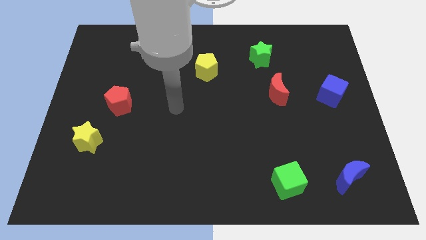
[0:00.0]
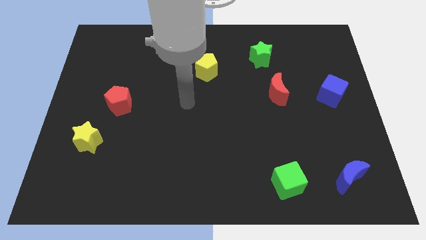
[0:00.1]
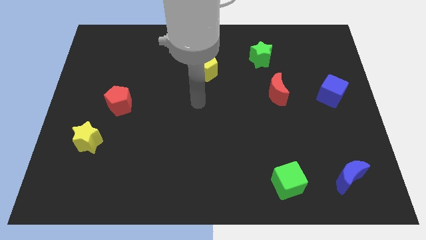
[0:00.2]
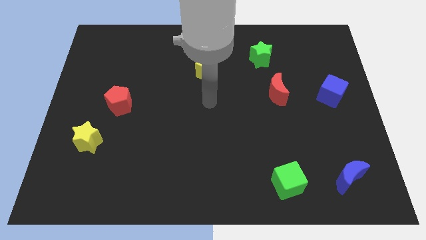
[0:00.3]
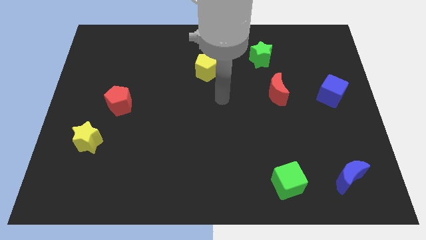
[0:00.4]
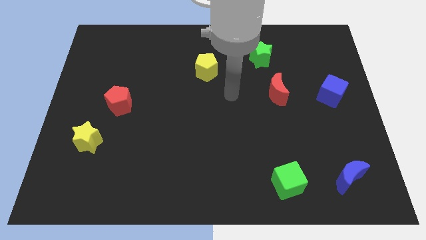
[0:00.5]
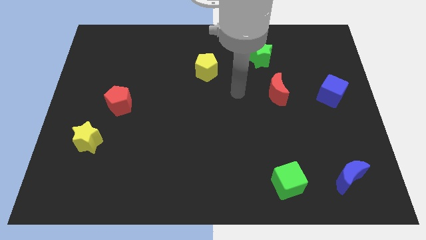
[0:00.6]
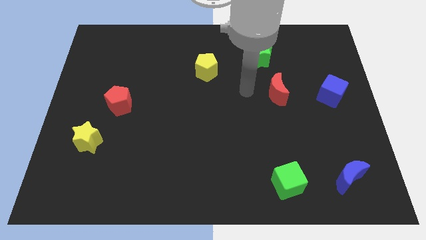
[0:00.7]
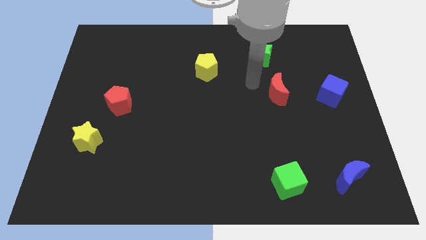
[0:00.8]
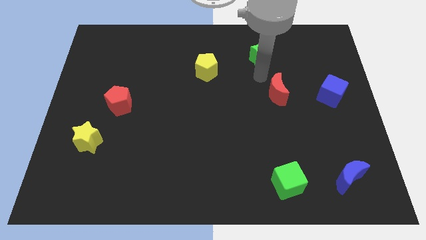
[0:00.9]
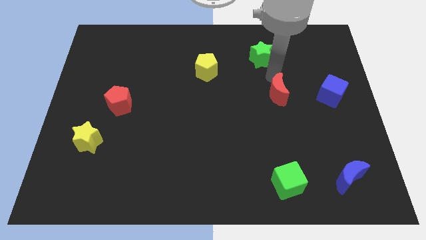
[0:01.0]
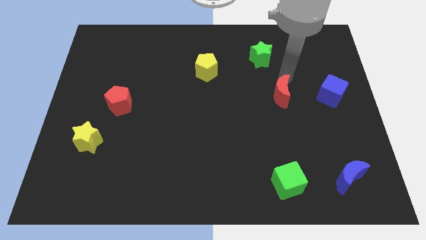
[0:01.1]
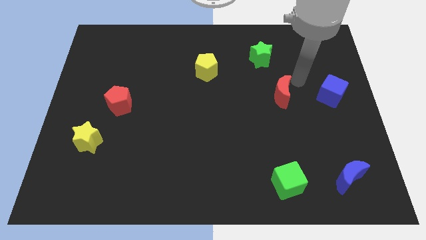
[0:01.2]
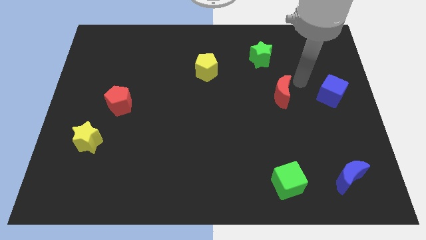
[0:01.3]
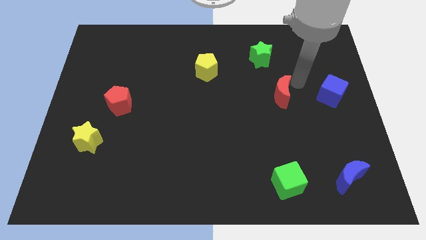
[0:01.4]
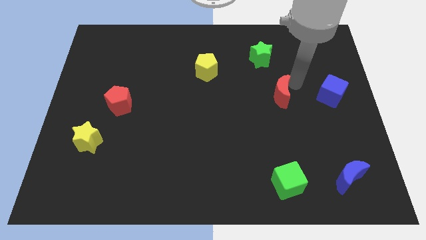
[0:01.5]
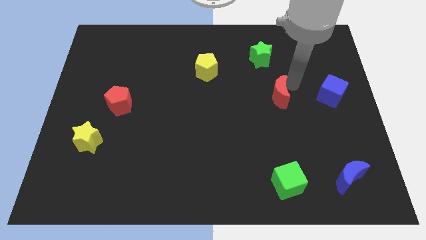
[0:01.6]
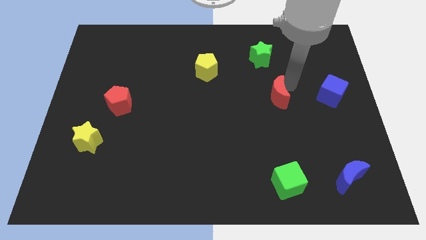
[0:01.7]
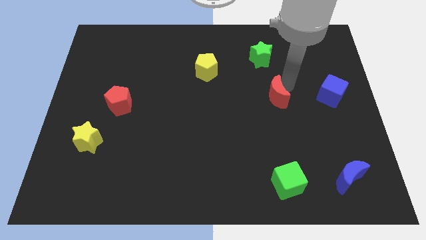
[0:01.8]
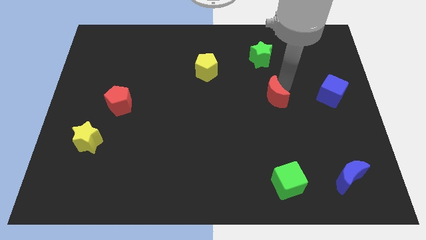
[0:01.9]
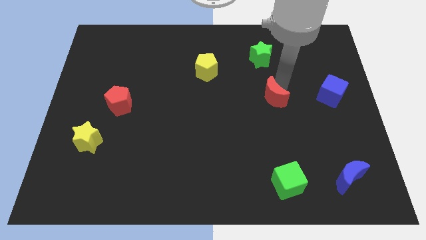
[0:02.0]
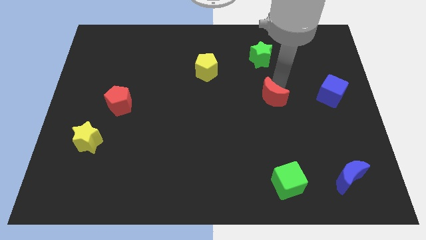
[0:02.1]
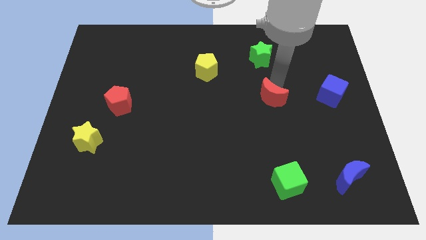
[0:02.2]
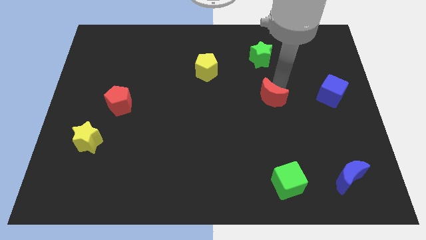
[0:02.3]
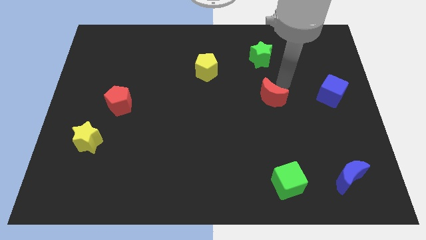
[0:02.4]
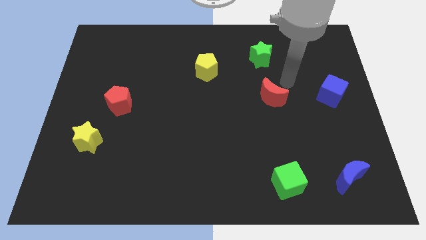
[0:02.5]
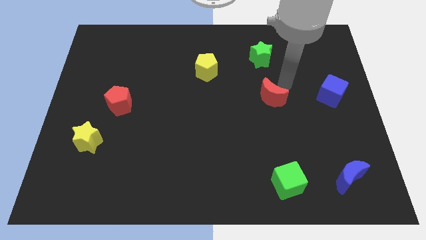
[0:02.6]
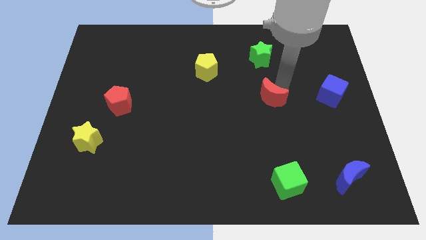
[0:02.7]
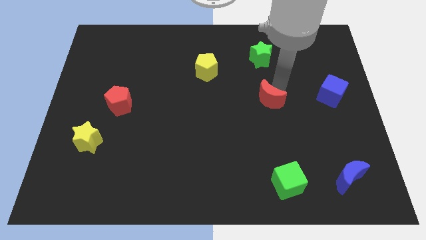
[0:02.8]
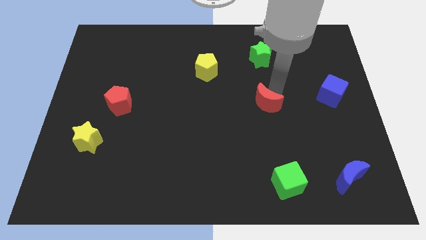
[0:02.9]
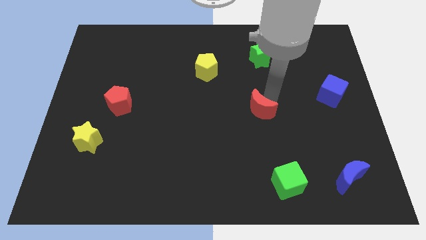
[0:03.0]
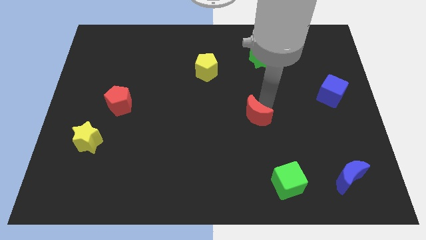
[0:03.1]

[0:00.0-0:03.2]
move the red moon downwards and then to the left slightly

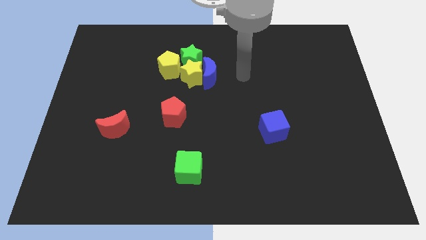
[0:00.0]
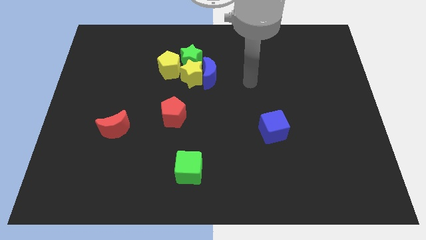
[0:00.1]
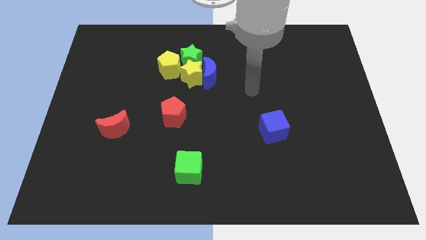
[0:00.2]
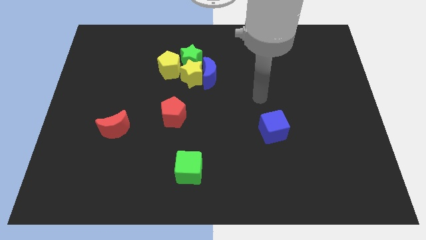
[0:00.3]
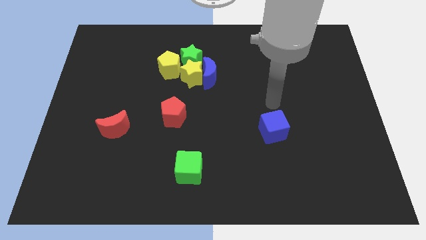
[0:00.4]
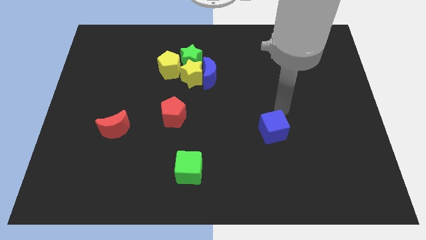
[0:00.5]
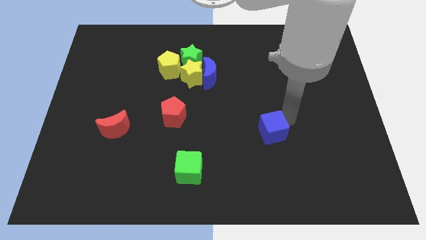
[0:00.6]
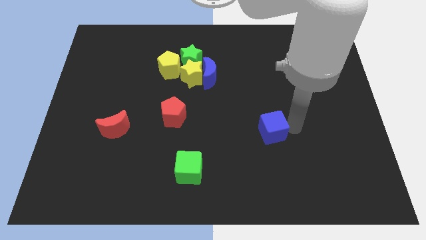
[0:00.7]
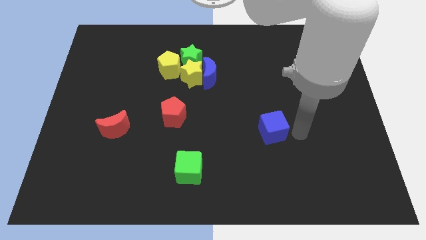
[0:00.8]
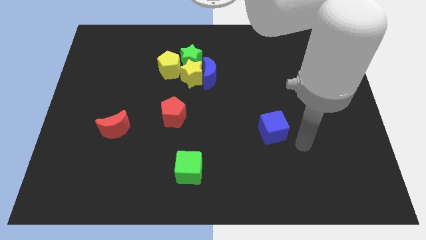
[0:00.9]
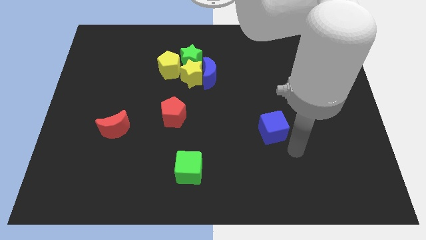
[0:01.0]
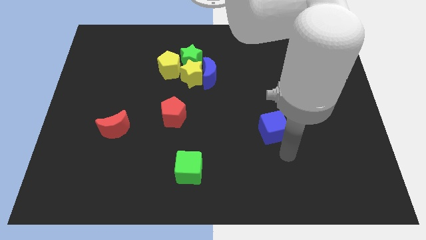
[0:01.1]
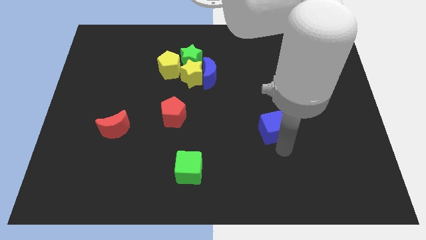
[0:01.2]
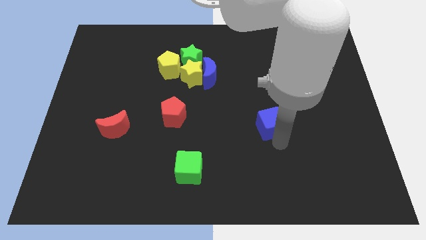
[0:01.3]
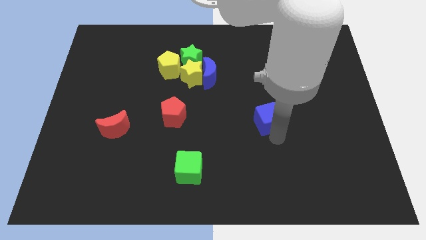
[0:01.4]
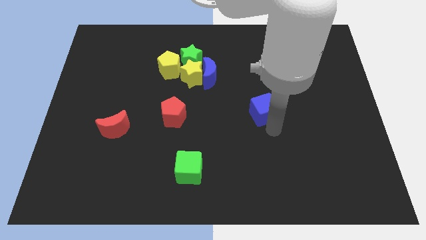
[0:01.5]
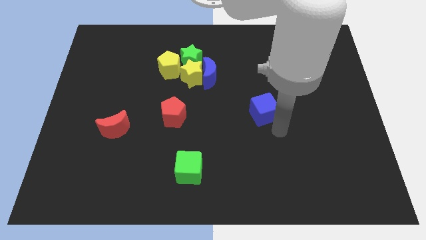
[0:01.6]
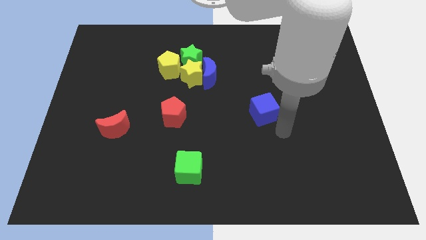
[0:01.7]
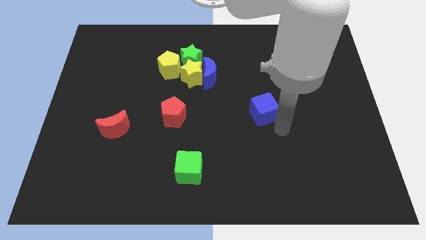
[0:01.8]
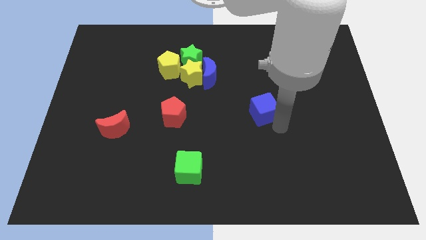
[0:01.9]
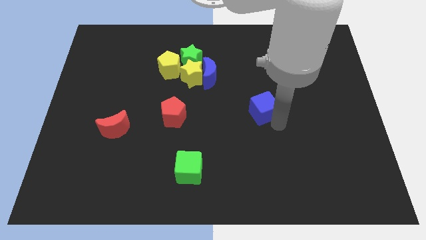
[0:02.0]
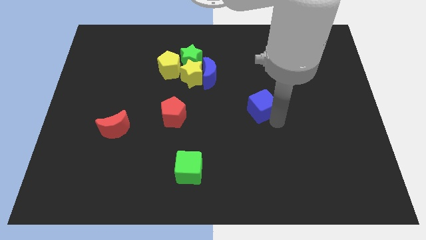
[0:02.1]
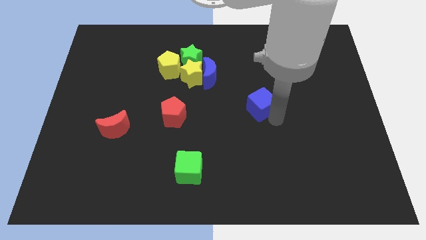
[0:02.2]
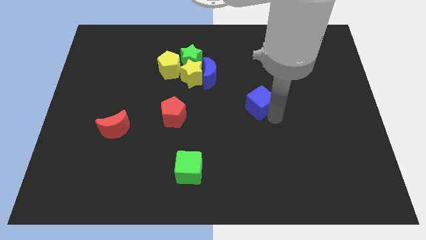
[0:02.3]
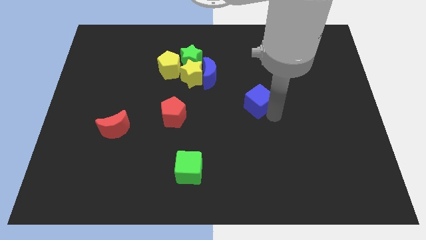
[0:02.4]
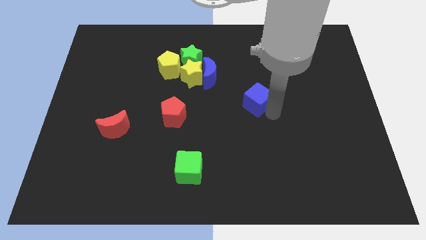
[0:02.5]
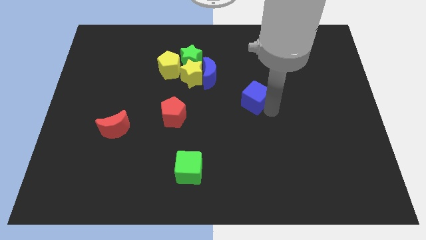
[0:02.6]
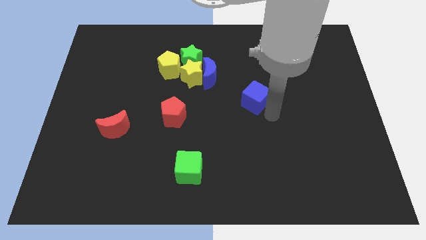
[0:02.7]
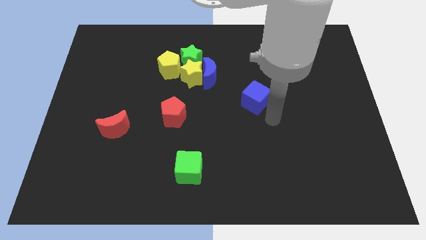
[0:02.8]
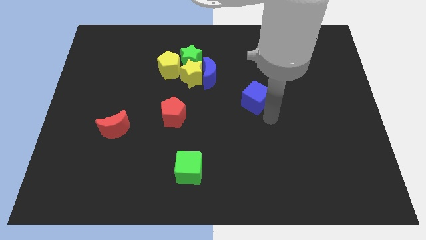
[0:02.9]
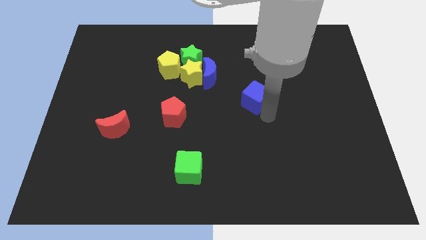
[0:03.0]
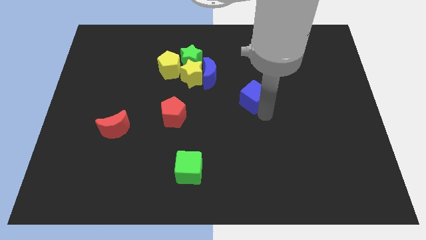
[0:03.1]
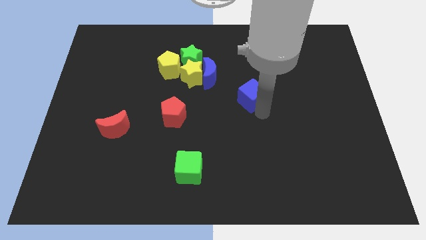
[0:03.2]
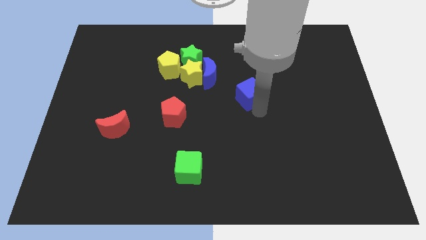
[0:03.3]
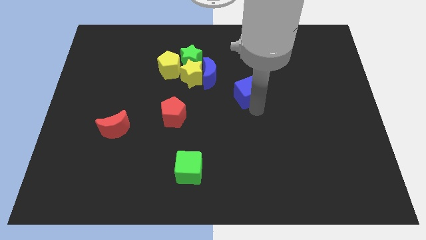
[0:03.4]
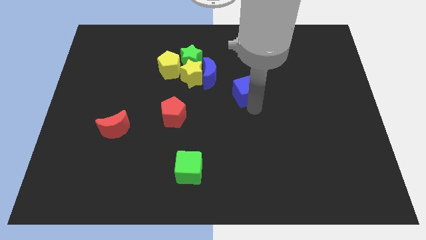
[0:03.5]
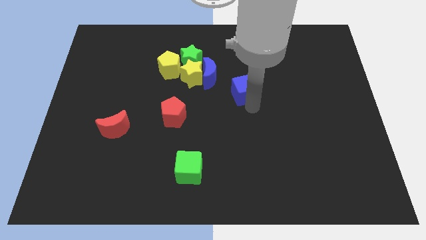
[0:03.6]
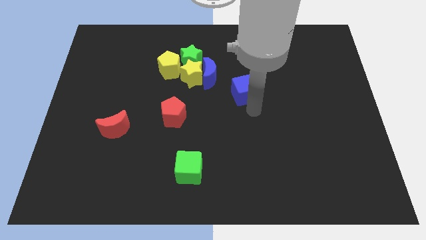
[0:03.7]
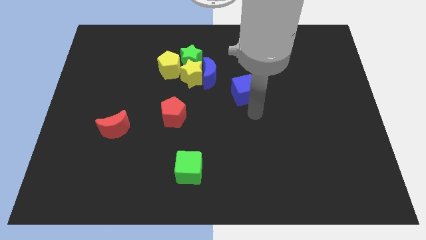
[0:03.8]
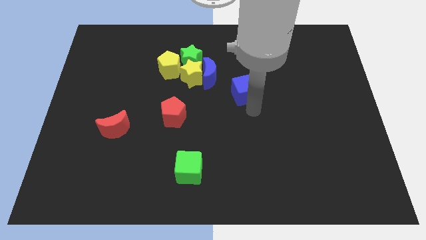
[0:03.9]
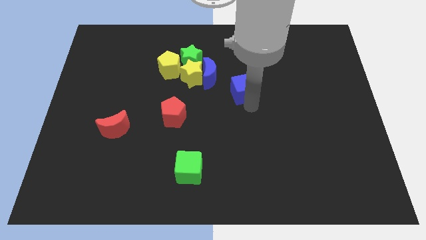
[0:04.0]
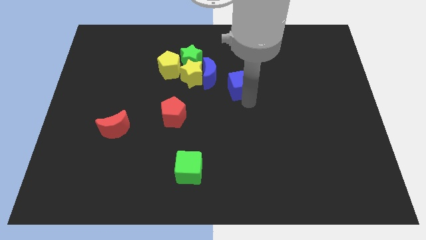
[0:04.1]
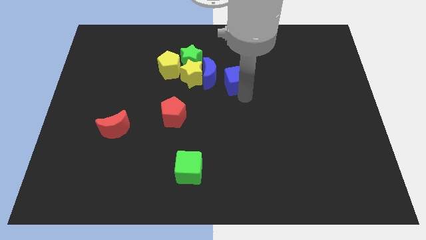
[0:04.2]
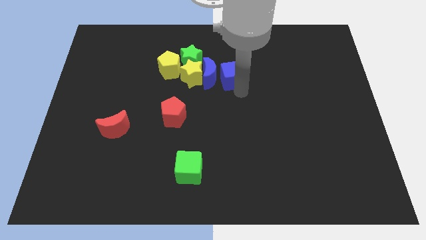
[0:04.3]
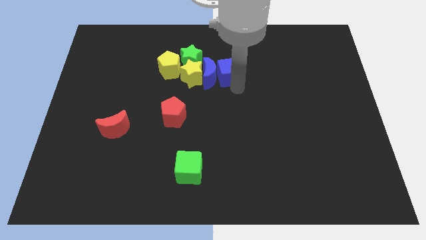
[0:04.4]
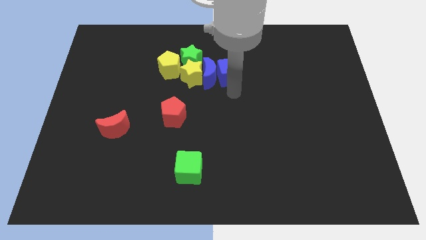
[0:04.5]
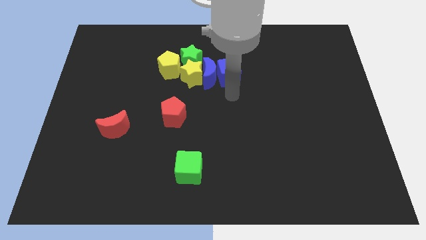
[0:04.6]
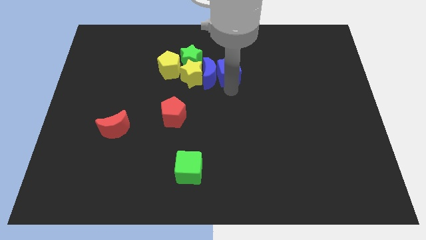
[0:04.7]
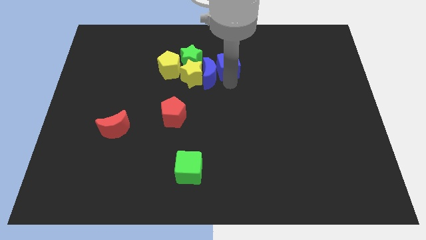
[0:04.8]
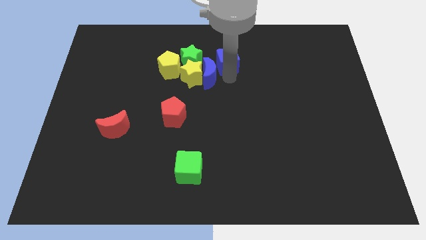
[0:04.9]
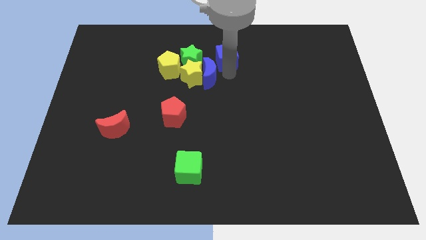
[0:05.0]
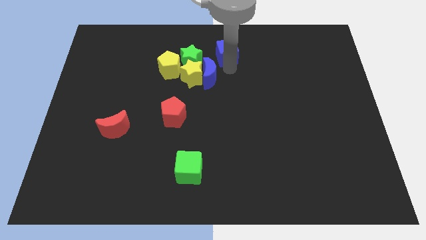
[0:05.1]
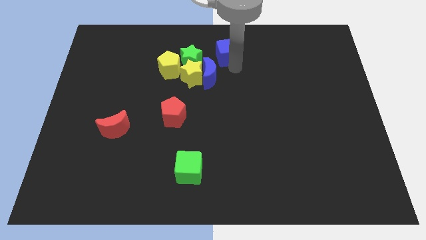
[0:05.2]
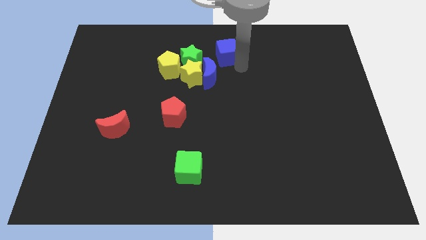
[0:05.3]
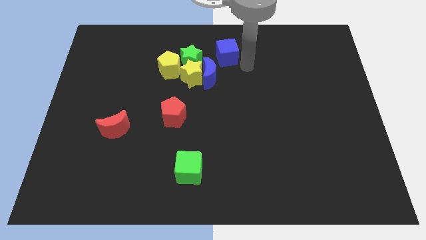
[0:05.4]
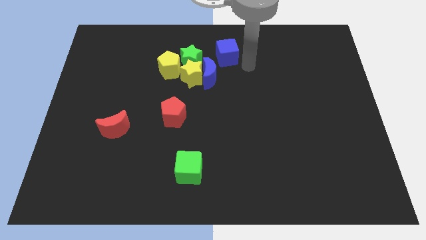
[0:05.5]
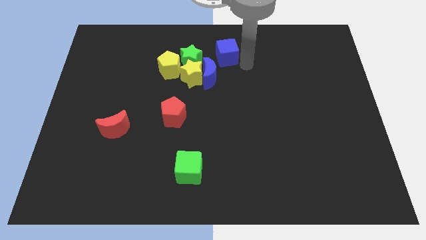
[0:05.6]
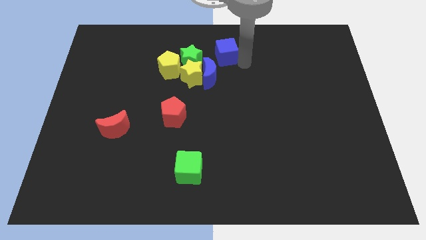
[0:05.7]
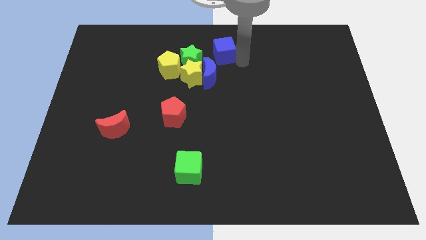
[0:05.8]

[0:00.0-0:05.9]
slide the blue cube diagonally up and to the left
